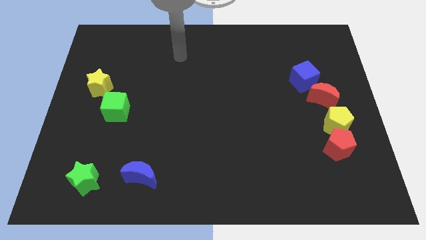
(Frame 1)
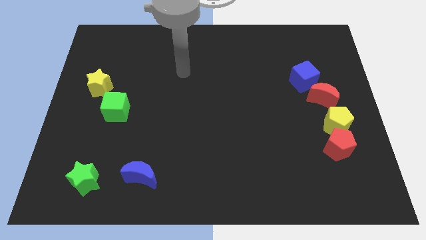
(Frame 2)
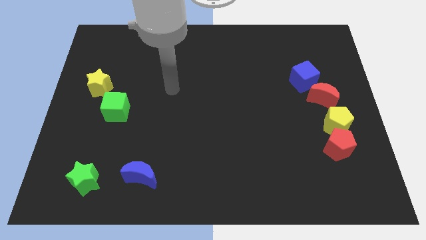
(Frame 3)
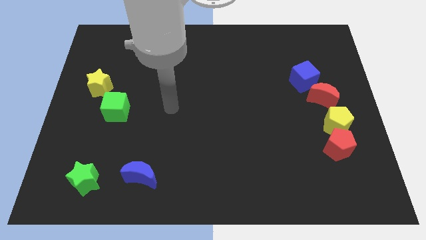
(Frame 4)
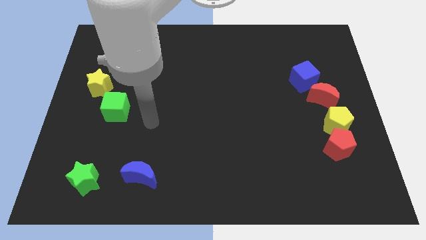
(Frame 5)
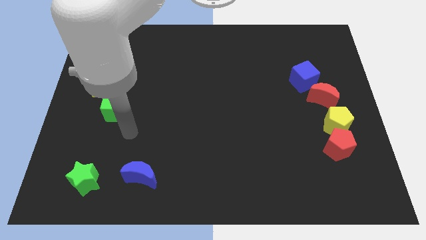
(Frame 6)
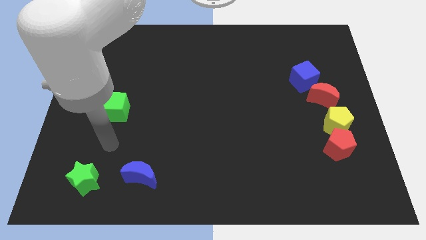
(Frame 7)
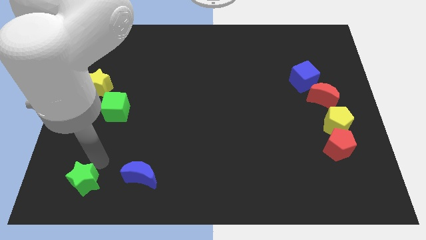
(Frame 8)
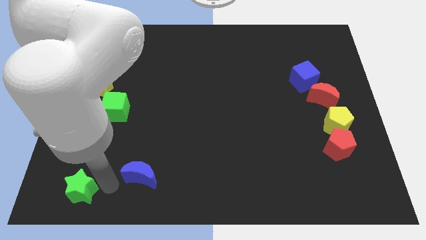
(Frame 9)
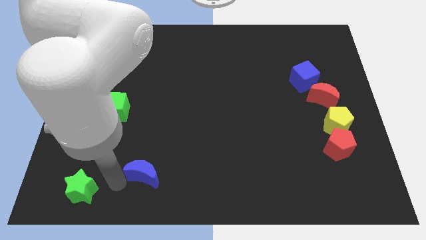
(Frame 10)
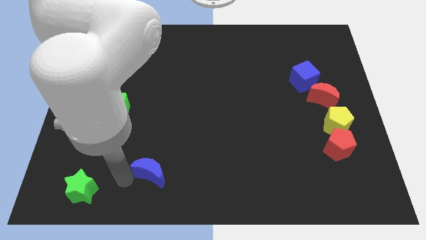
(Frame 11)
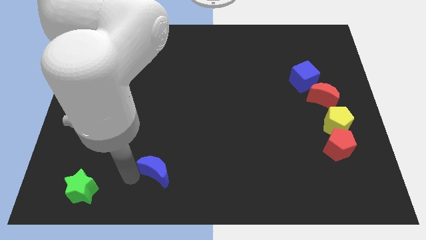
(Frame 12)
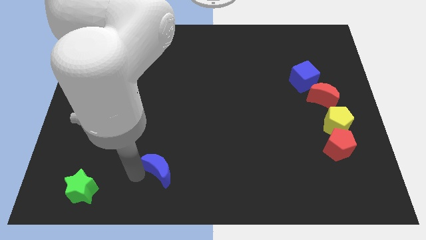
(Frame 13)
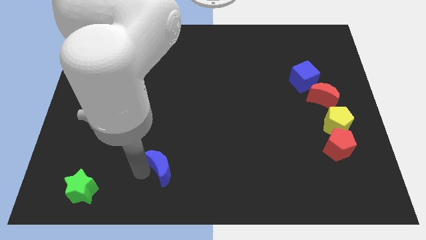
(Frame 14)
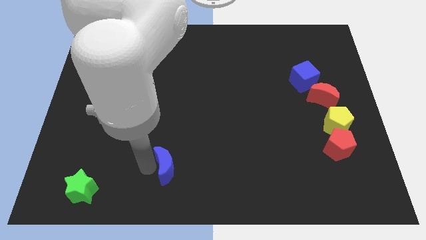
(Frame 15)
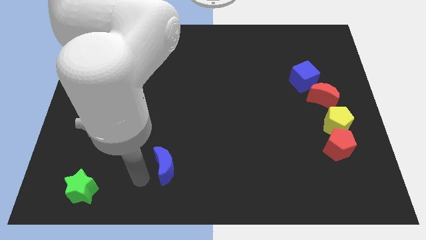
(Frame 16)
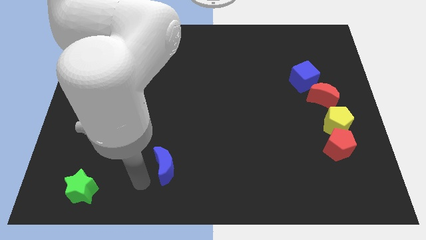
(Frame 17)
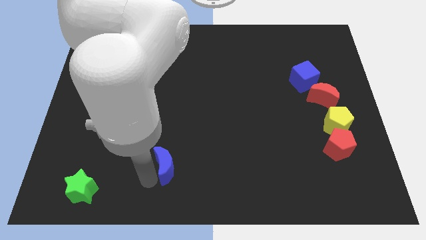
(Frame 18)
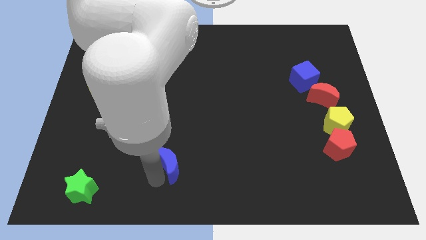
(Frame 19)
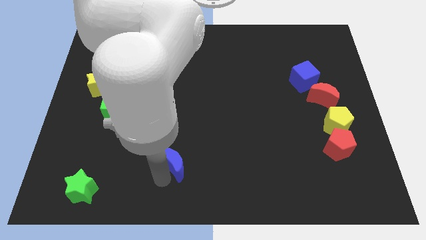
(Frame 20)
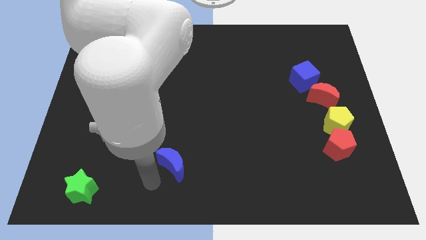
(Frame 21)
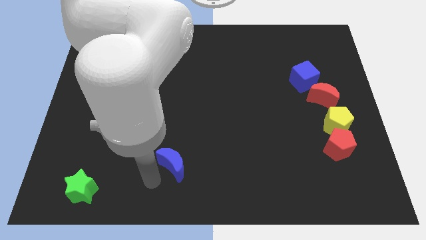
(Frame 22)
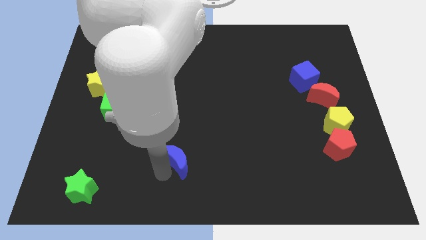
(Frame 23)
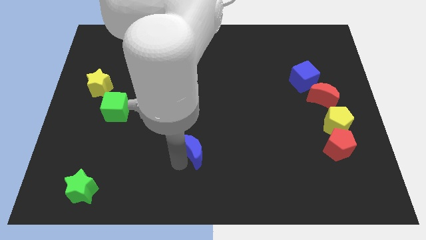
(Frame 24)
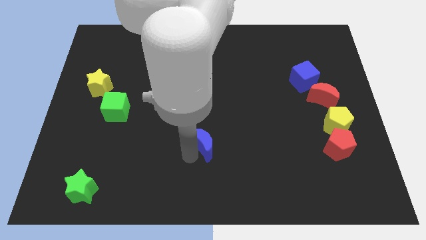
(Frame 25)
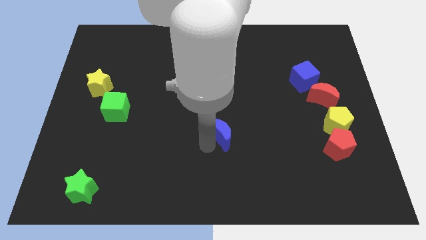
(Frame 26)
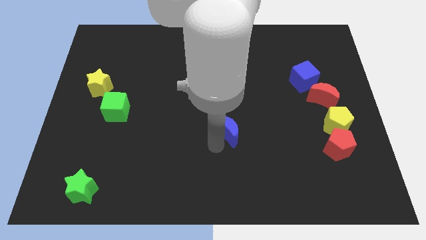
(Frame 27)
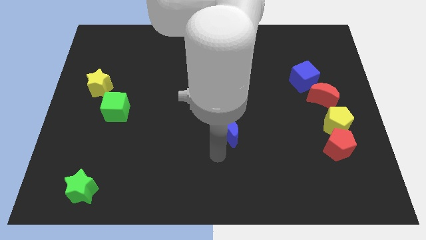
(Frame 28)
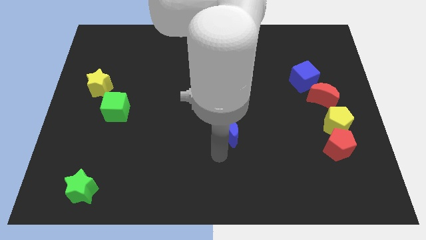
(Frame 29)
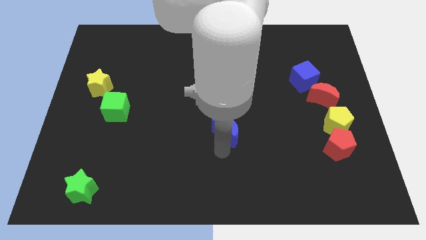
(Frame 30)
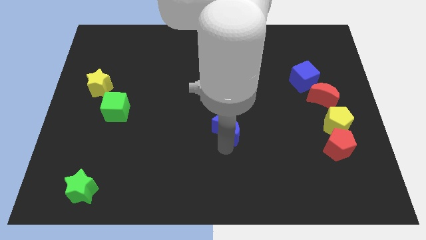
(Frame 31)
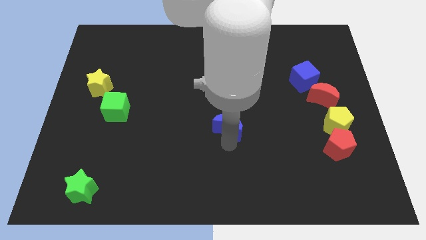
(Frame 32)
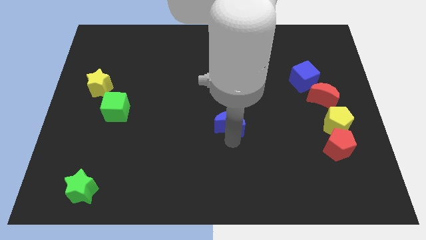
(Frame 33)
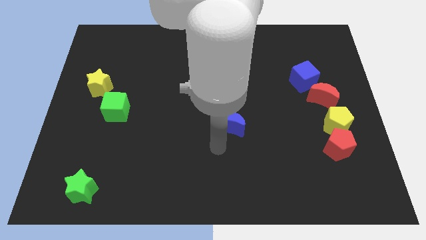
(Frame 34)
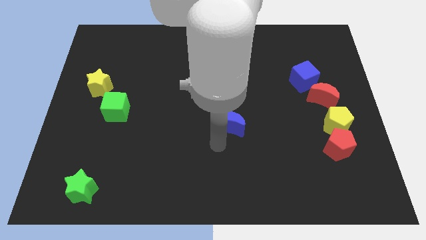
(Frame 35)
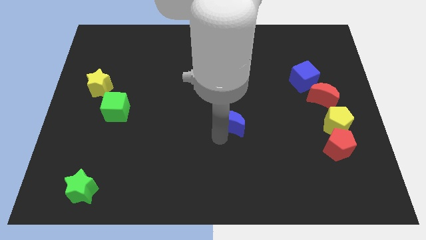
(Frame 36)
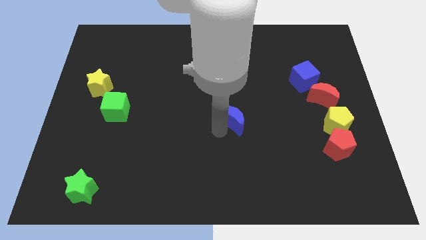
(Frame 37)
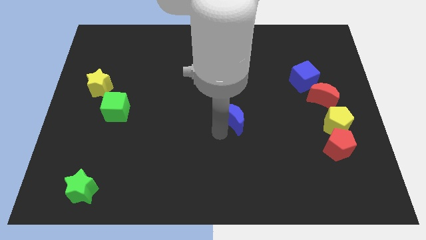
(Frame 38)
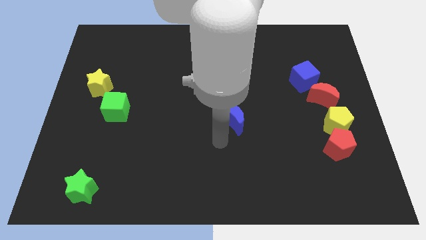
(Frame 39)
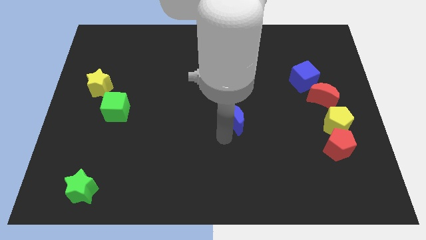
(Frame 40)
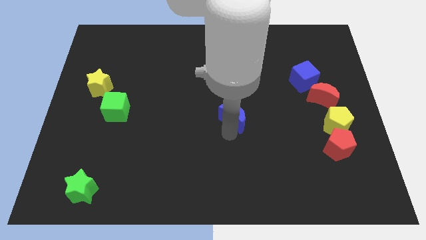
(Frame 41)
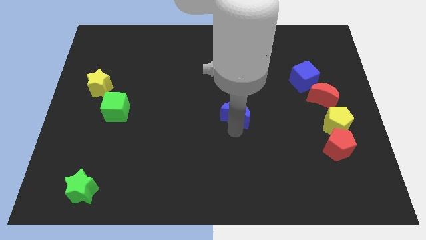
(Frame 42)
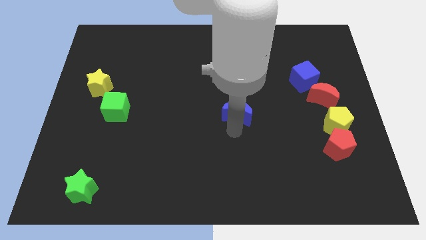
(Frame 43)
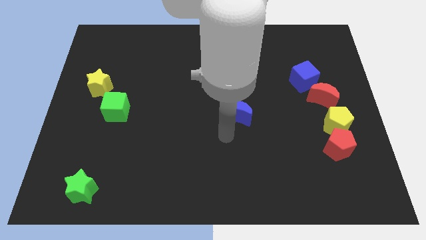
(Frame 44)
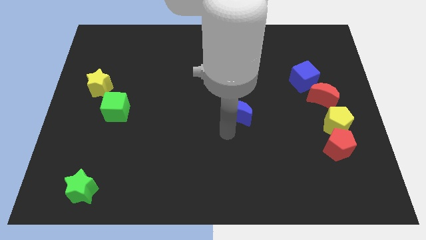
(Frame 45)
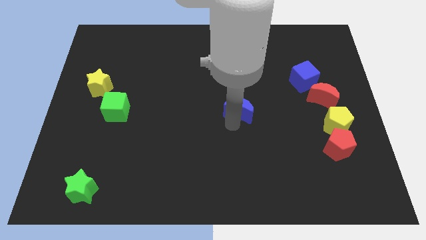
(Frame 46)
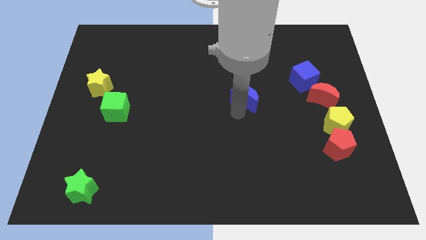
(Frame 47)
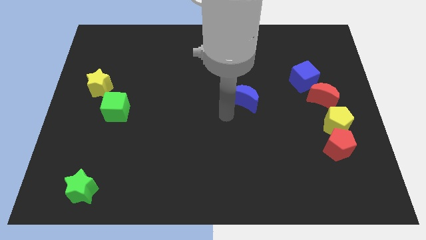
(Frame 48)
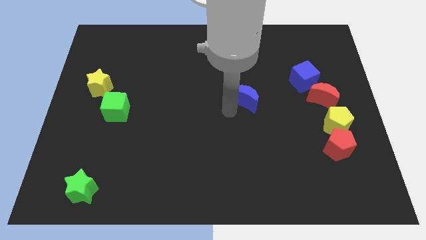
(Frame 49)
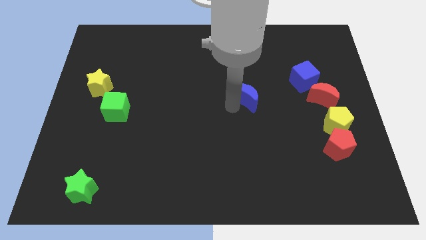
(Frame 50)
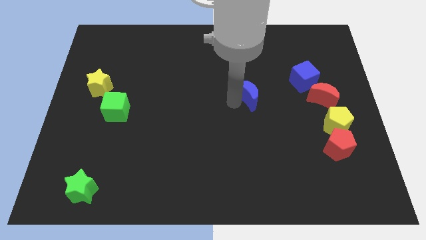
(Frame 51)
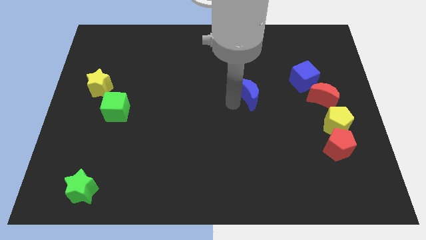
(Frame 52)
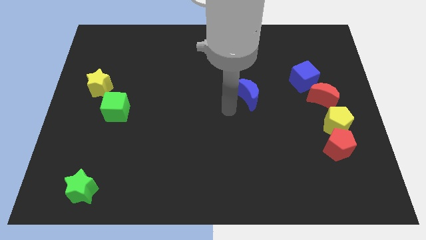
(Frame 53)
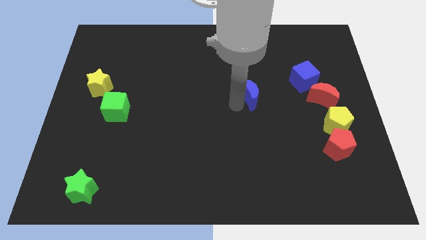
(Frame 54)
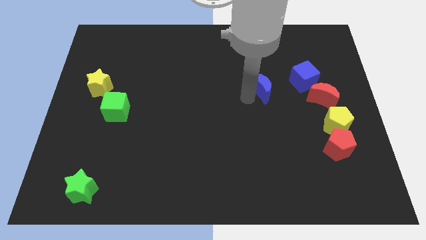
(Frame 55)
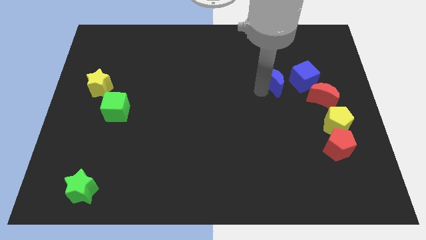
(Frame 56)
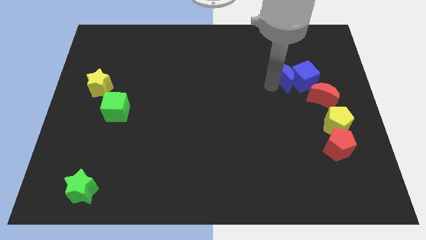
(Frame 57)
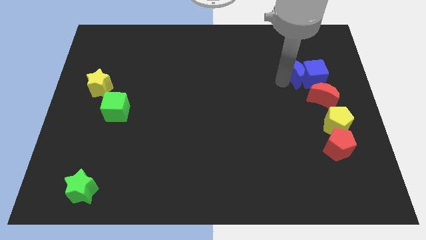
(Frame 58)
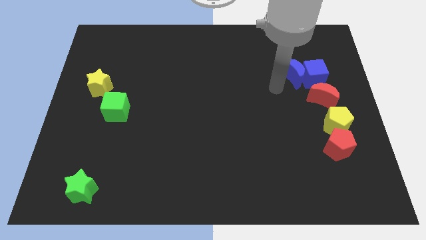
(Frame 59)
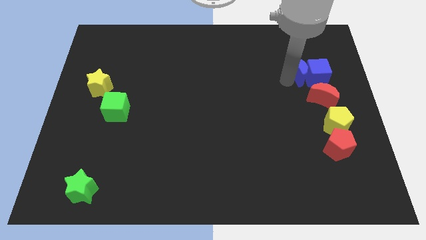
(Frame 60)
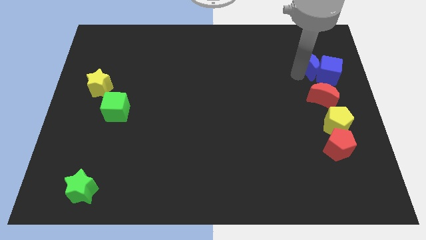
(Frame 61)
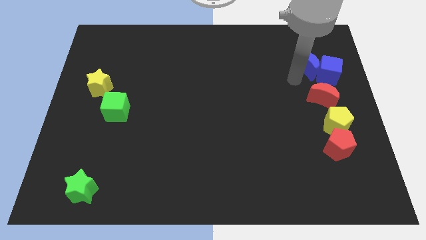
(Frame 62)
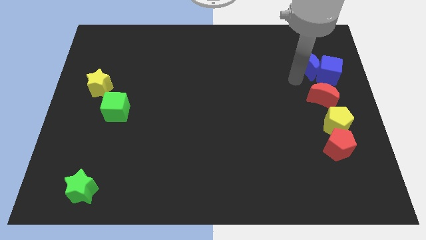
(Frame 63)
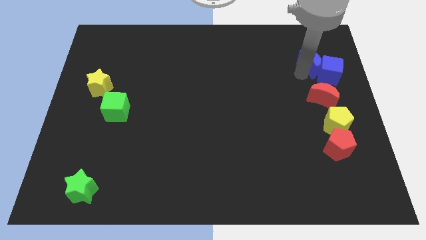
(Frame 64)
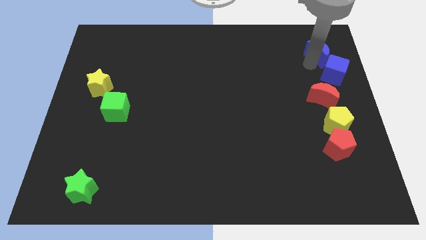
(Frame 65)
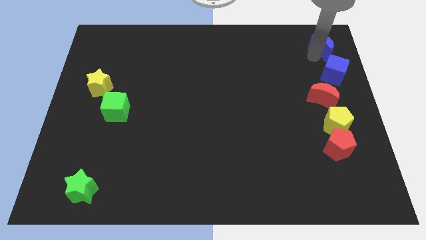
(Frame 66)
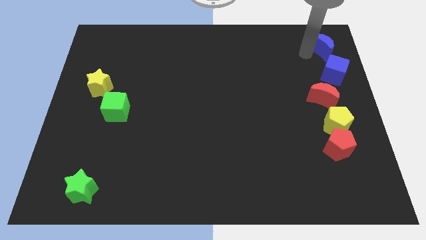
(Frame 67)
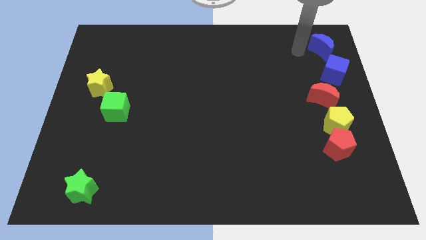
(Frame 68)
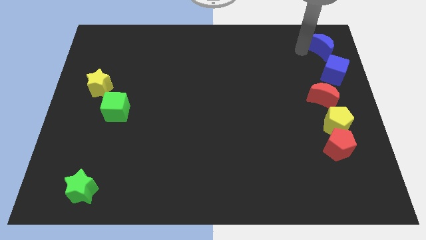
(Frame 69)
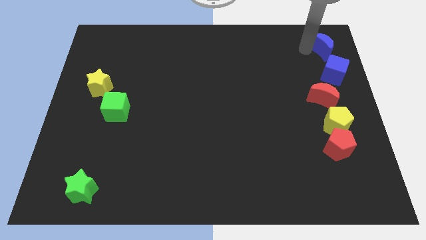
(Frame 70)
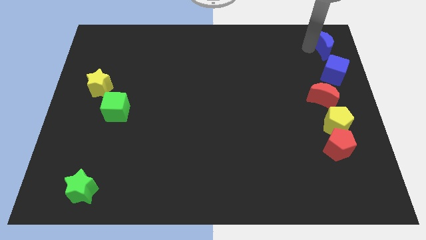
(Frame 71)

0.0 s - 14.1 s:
push the blue moon to the top right of the board

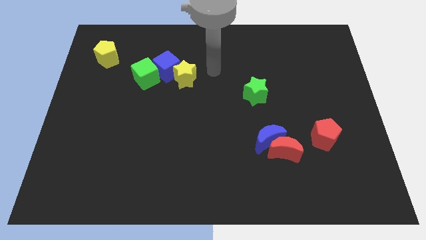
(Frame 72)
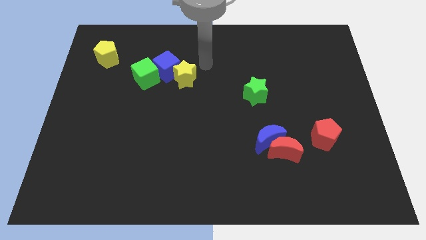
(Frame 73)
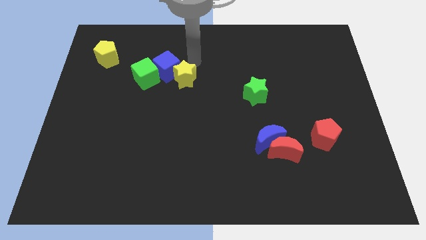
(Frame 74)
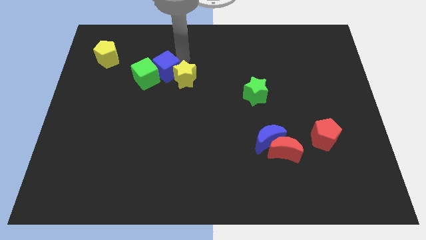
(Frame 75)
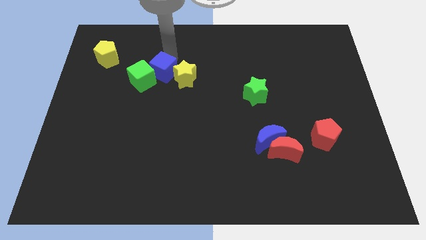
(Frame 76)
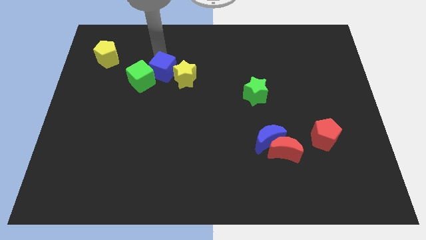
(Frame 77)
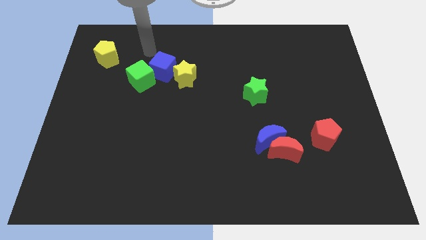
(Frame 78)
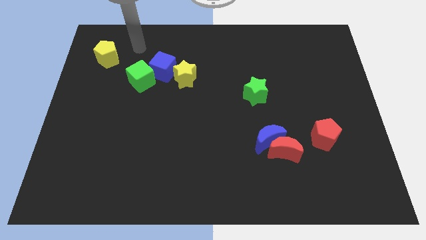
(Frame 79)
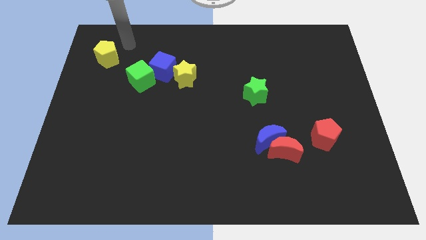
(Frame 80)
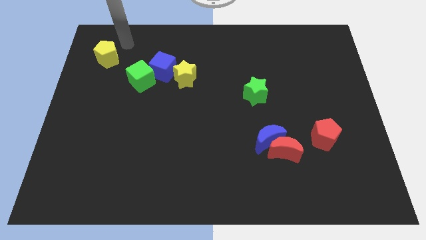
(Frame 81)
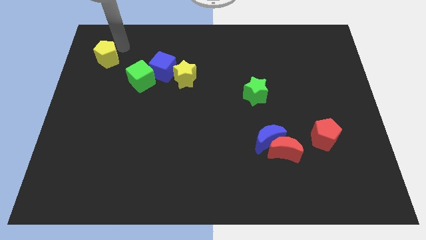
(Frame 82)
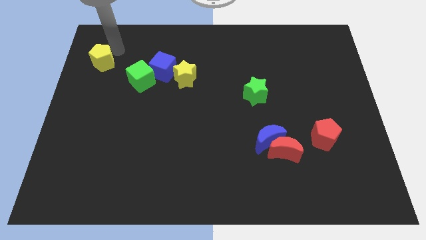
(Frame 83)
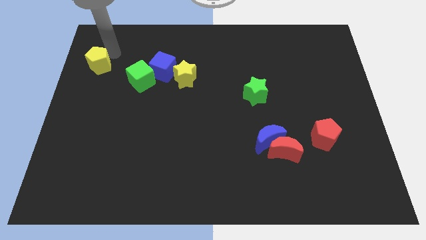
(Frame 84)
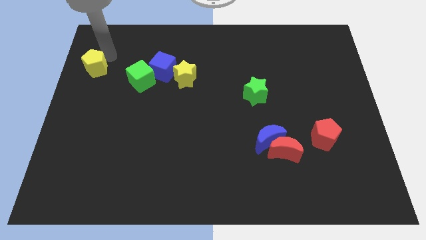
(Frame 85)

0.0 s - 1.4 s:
push the yellow pentagon to the left side
